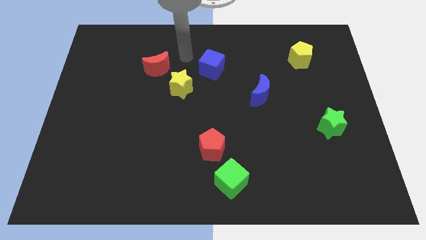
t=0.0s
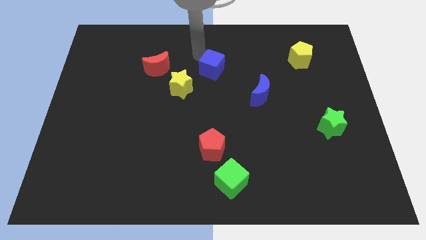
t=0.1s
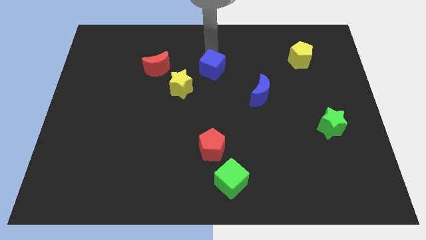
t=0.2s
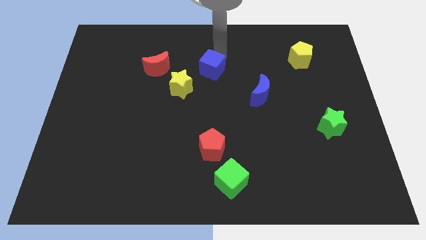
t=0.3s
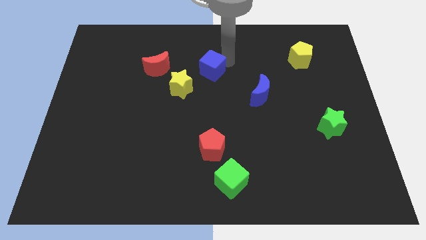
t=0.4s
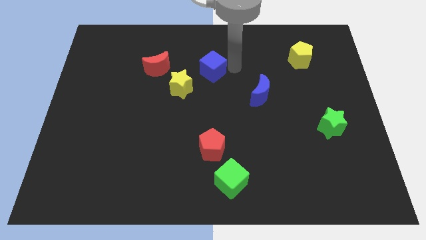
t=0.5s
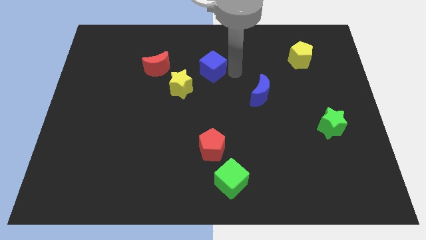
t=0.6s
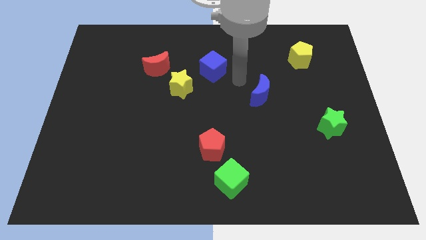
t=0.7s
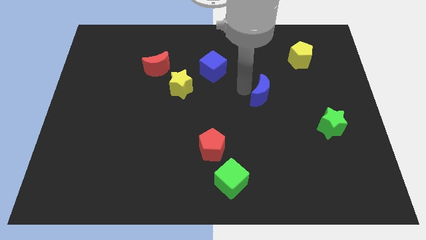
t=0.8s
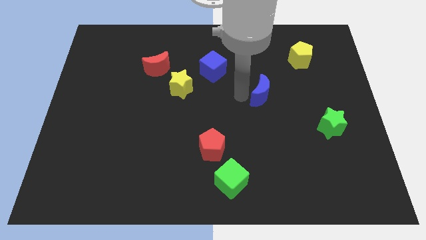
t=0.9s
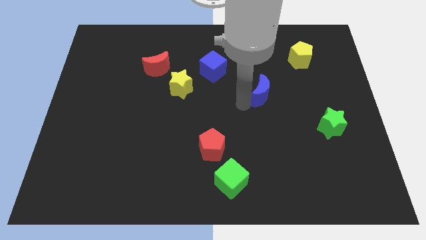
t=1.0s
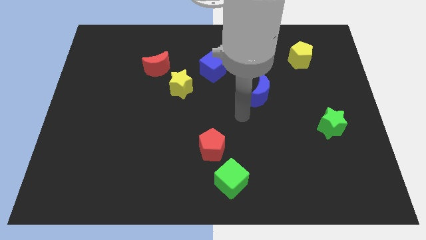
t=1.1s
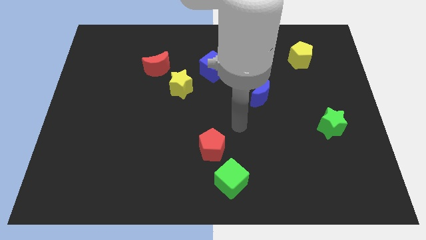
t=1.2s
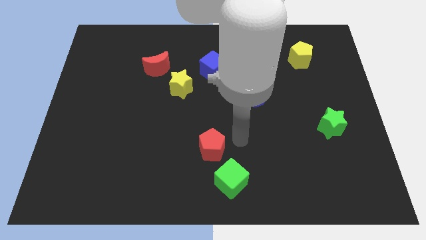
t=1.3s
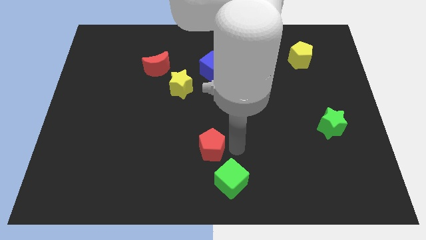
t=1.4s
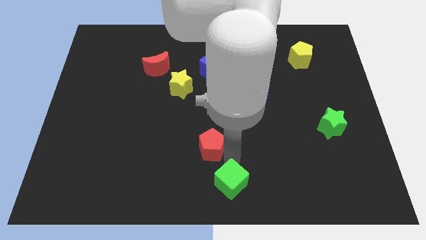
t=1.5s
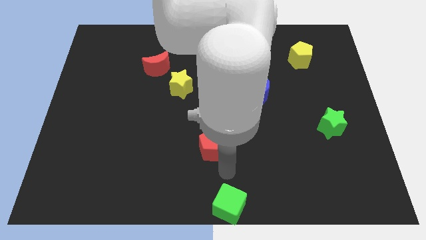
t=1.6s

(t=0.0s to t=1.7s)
move the red pentagon away from the green cube

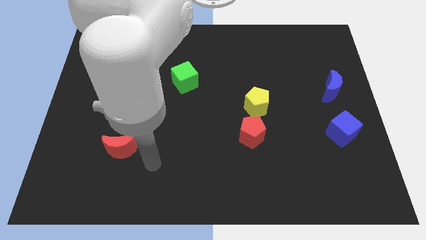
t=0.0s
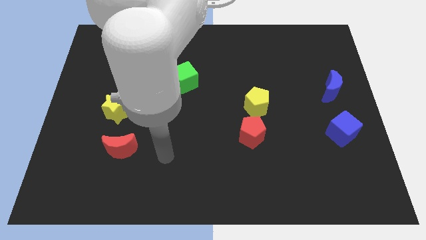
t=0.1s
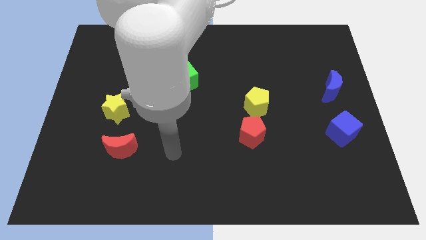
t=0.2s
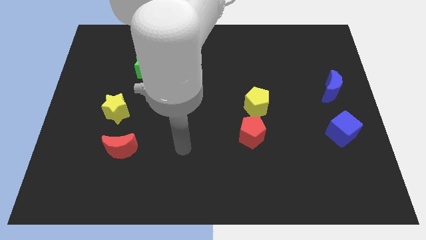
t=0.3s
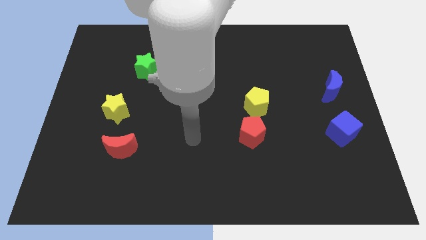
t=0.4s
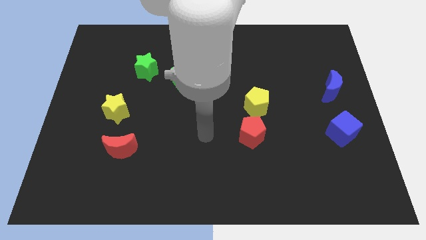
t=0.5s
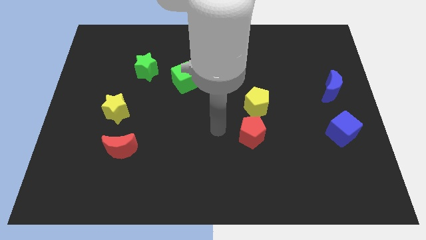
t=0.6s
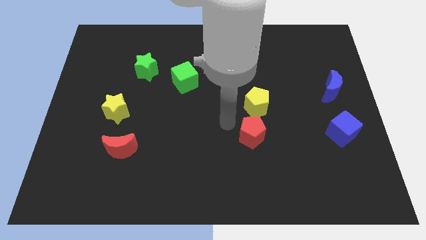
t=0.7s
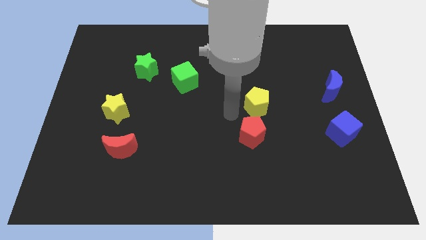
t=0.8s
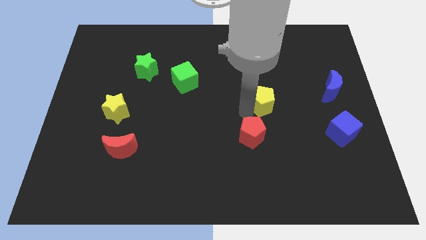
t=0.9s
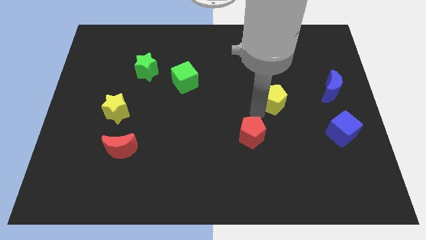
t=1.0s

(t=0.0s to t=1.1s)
move the red pentagon away from the yellow pentagon

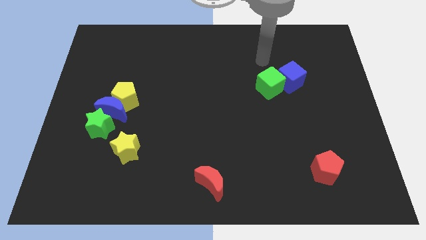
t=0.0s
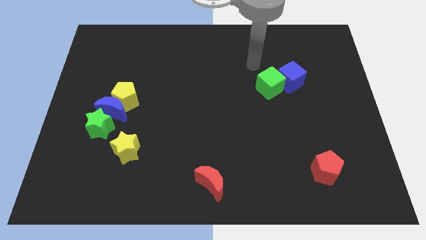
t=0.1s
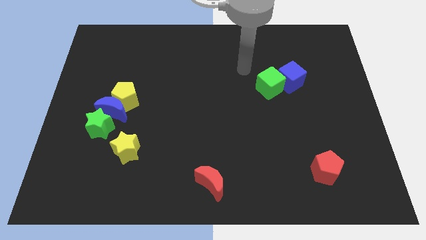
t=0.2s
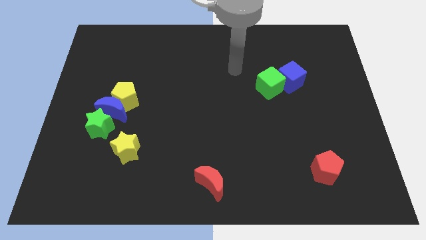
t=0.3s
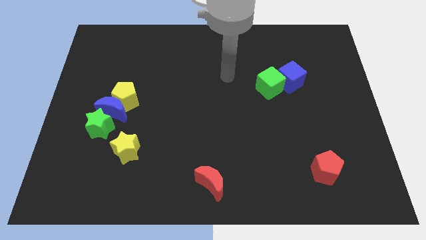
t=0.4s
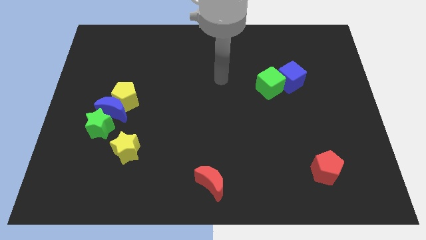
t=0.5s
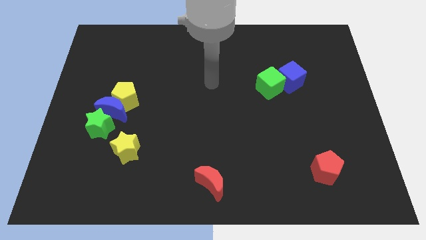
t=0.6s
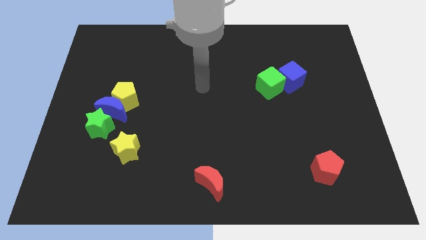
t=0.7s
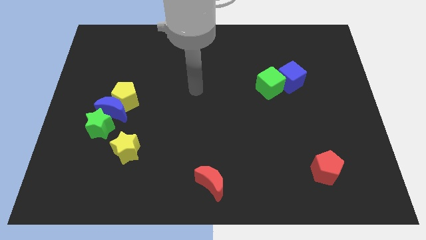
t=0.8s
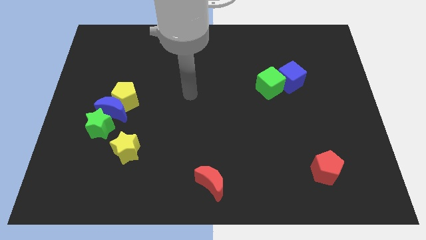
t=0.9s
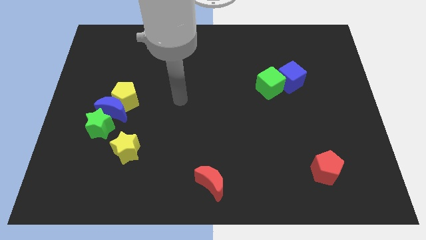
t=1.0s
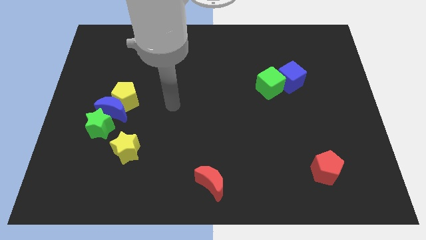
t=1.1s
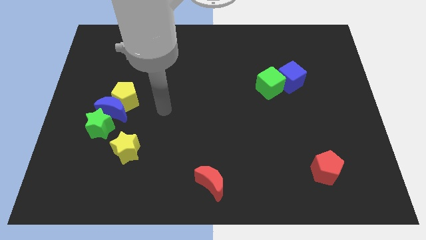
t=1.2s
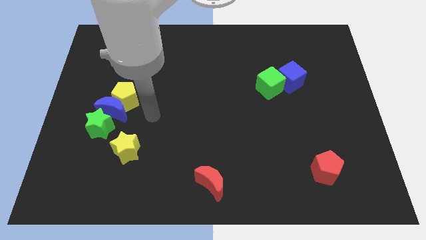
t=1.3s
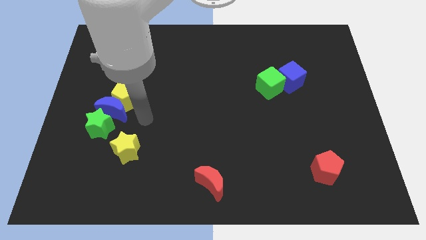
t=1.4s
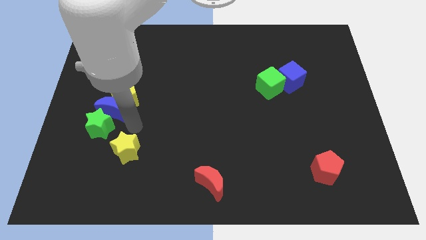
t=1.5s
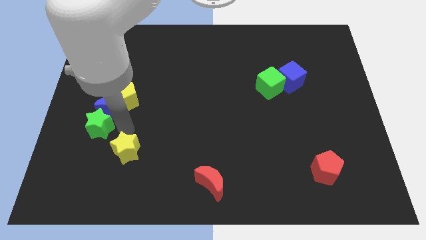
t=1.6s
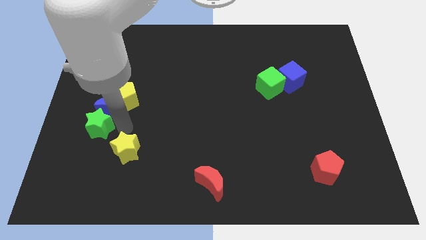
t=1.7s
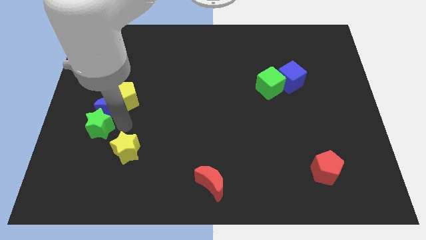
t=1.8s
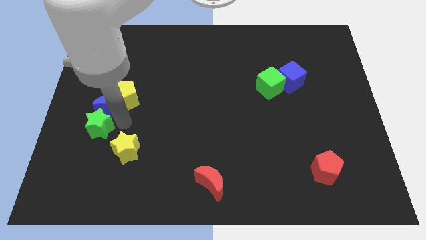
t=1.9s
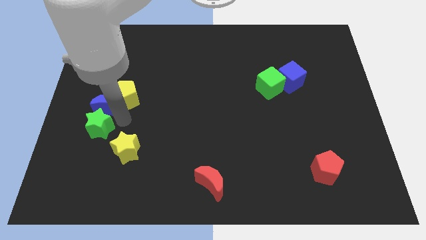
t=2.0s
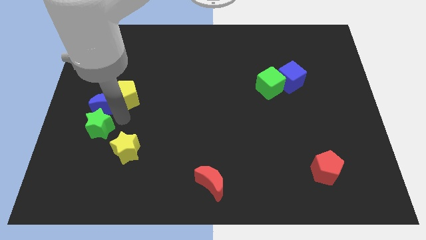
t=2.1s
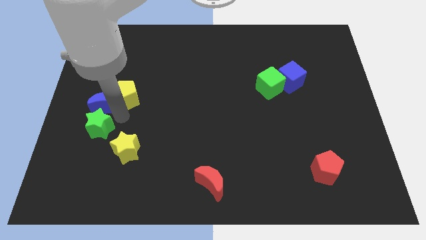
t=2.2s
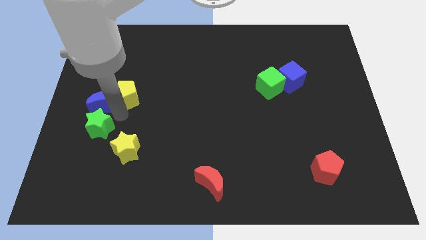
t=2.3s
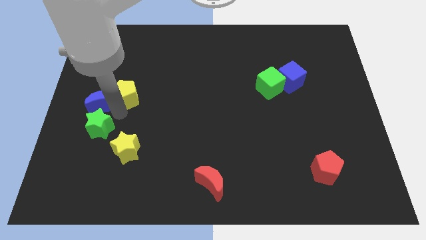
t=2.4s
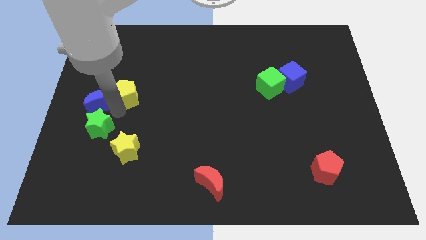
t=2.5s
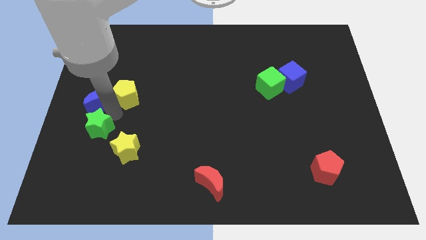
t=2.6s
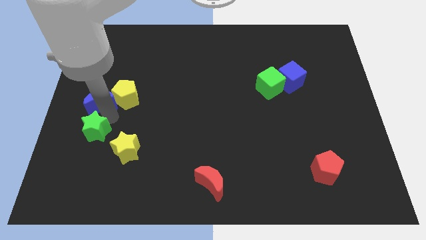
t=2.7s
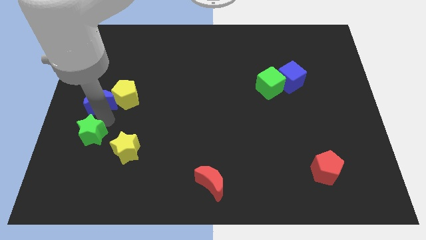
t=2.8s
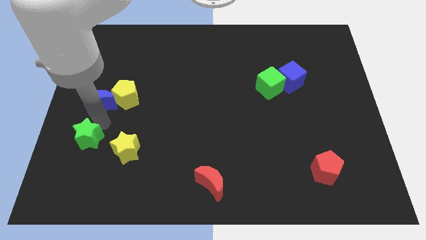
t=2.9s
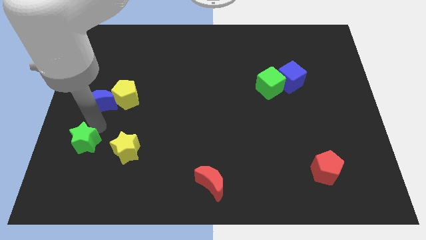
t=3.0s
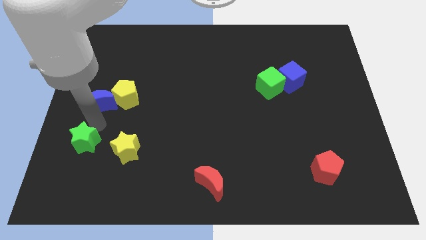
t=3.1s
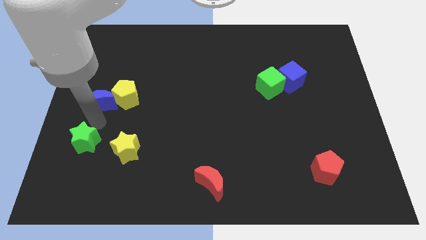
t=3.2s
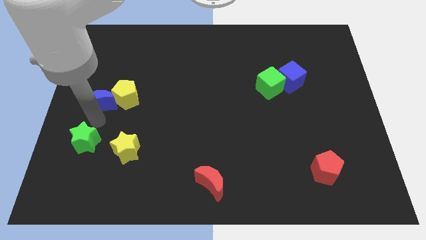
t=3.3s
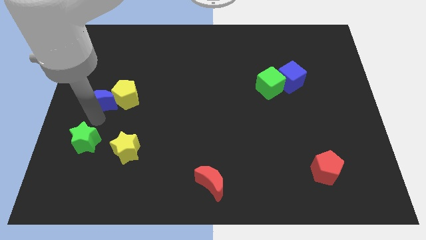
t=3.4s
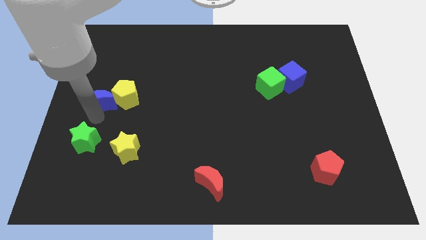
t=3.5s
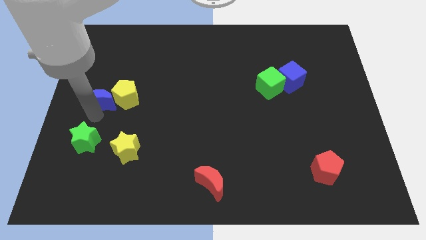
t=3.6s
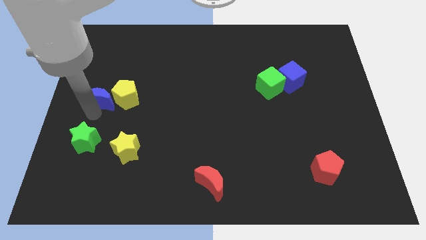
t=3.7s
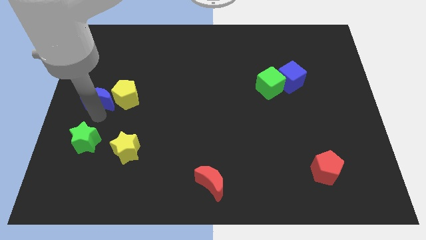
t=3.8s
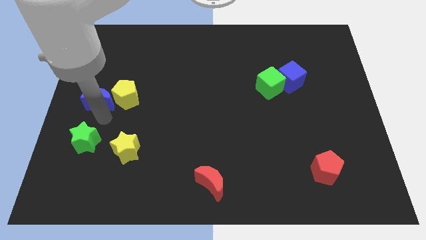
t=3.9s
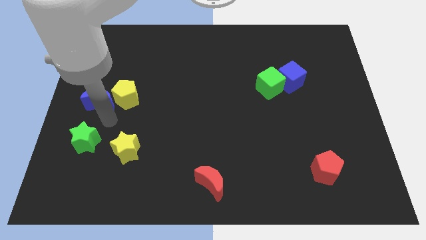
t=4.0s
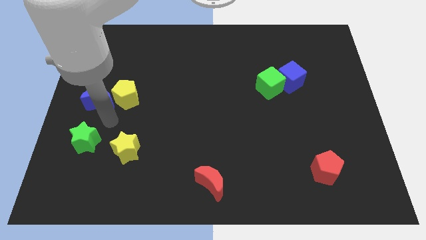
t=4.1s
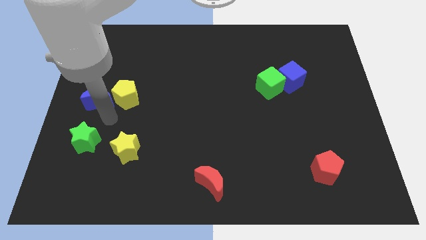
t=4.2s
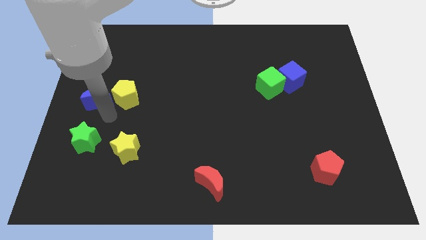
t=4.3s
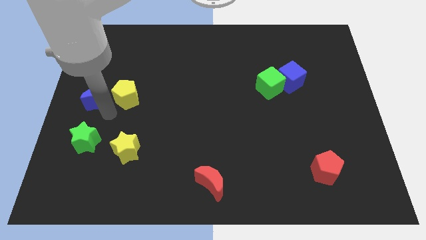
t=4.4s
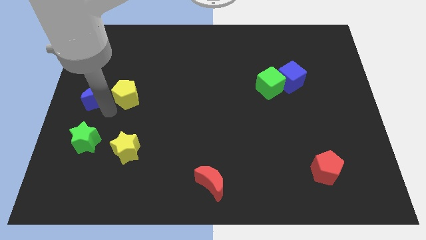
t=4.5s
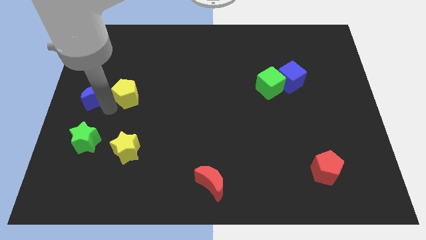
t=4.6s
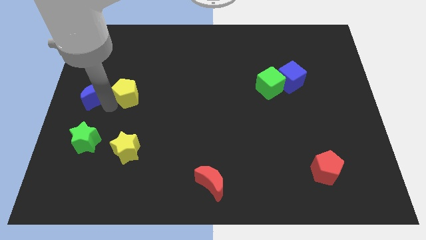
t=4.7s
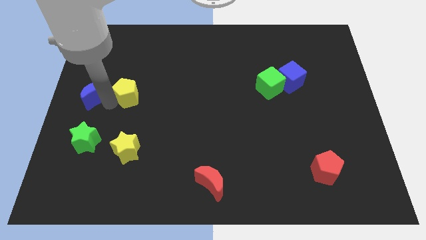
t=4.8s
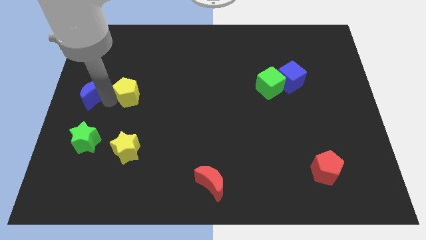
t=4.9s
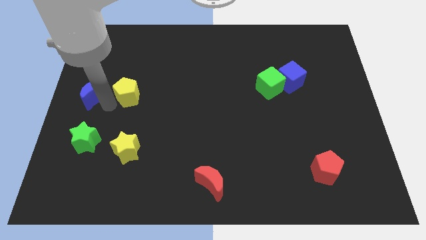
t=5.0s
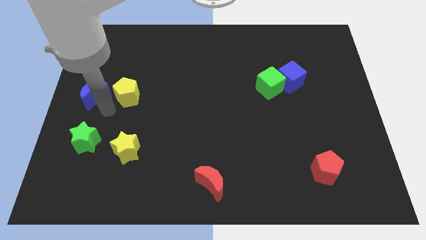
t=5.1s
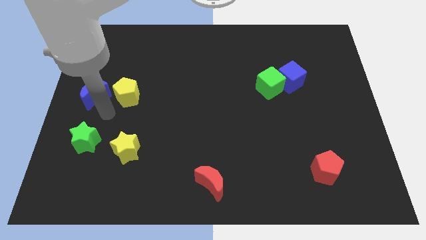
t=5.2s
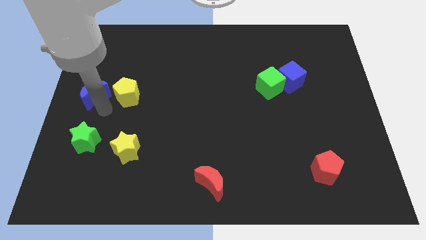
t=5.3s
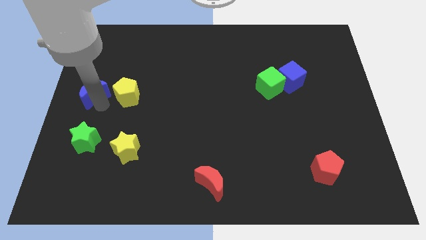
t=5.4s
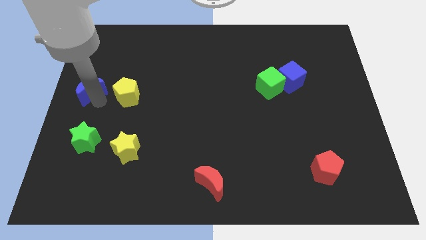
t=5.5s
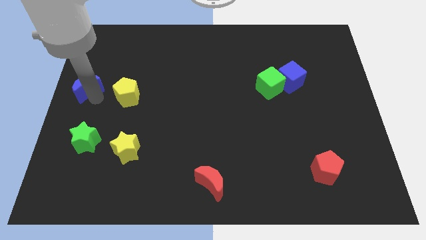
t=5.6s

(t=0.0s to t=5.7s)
pull the blue moon apart from the yellow pentagon and green star

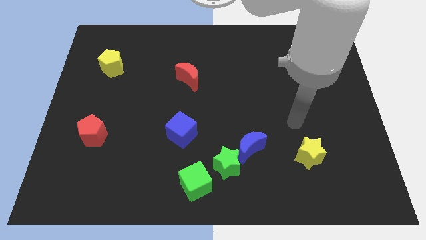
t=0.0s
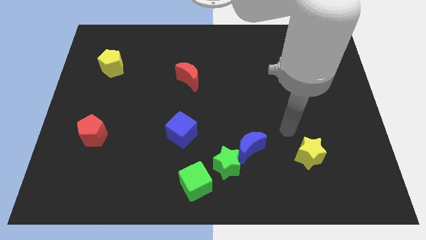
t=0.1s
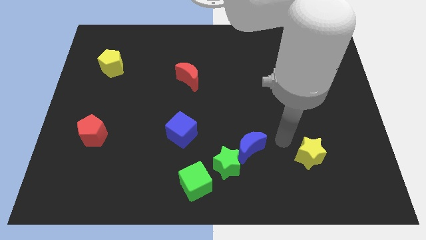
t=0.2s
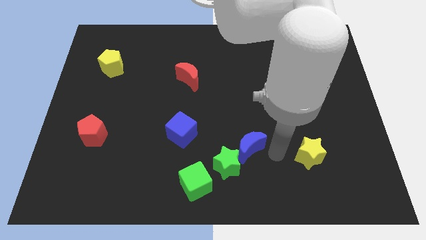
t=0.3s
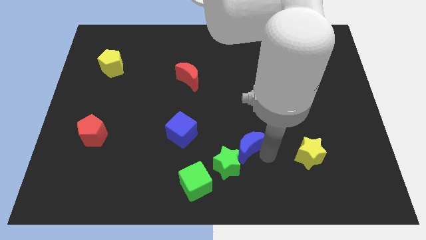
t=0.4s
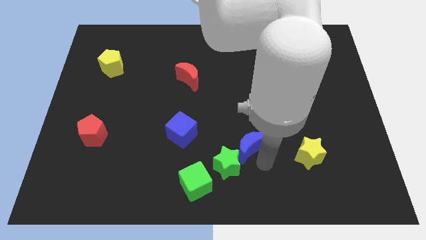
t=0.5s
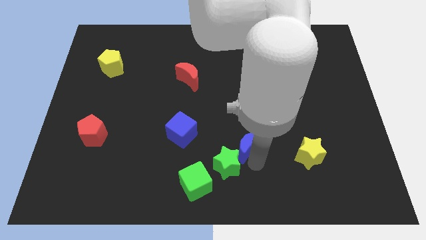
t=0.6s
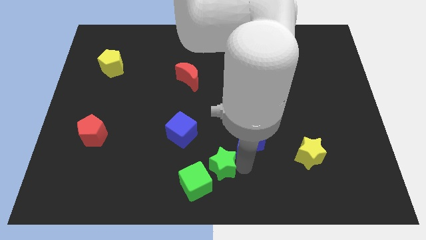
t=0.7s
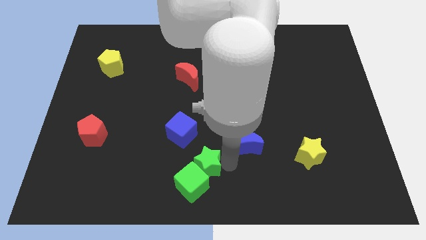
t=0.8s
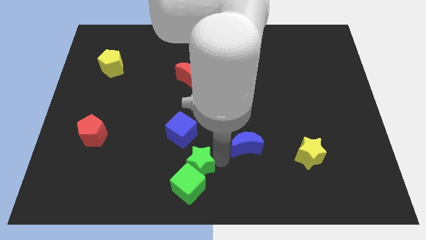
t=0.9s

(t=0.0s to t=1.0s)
separate the blue moon from the green star
